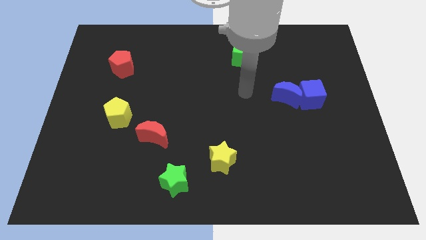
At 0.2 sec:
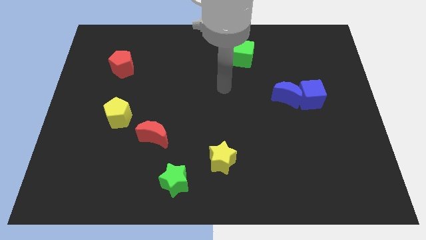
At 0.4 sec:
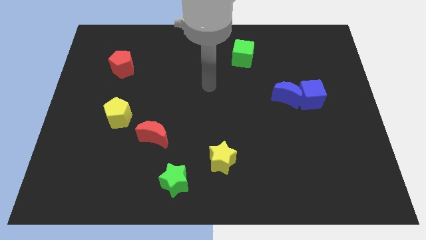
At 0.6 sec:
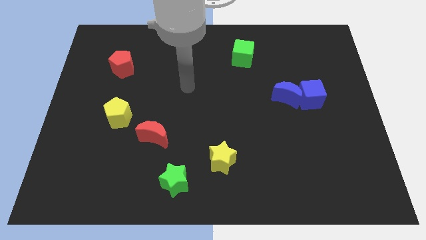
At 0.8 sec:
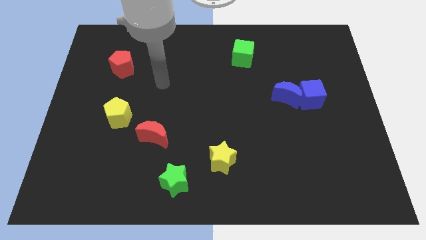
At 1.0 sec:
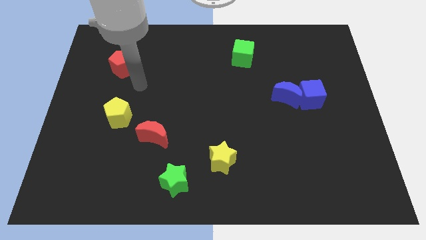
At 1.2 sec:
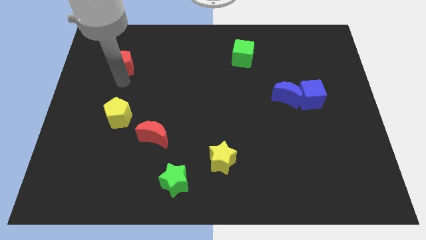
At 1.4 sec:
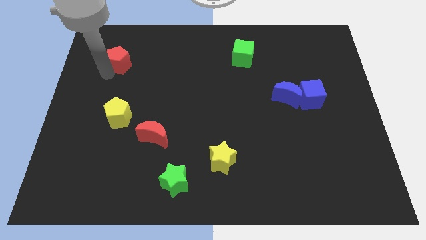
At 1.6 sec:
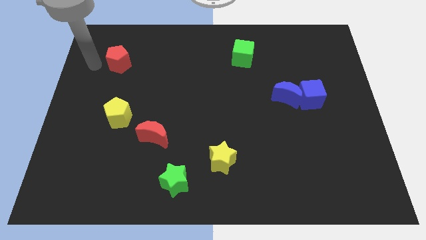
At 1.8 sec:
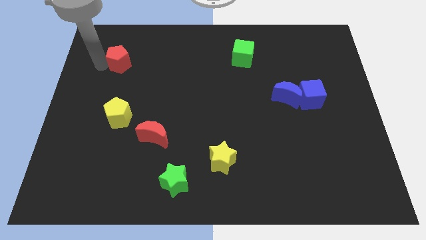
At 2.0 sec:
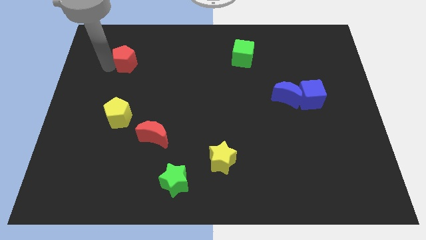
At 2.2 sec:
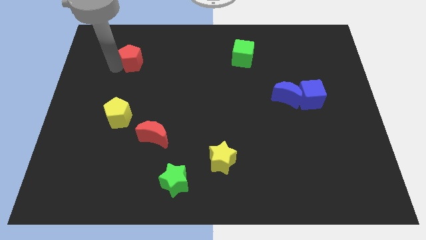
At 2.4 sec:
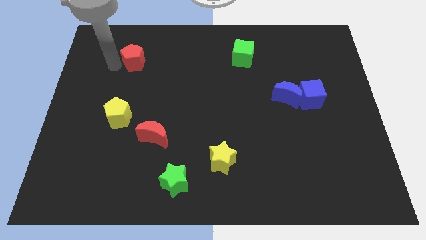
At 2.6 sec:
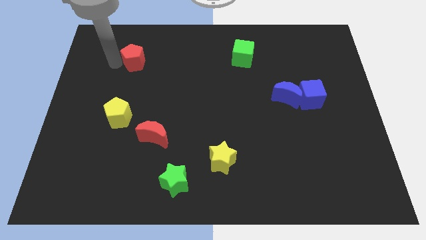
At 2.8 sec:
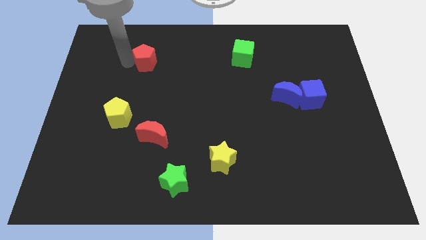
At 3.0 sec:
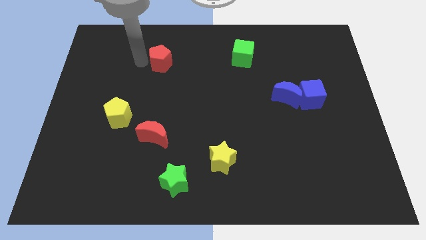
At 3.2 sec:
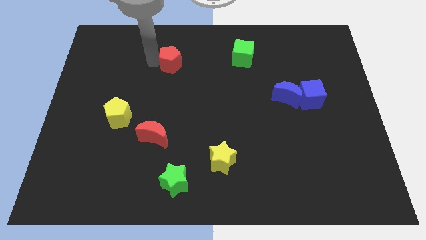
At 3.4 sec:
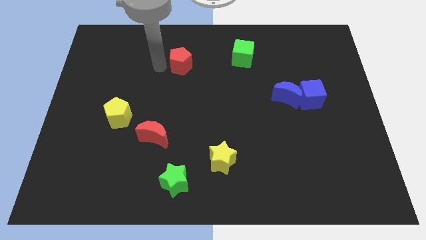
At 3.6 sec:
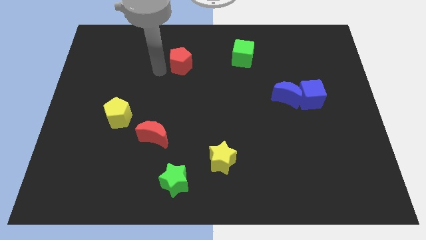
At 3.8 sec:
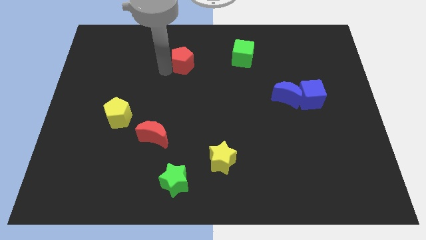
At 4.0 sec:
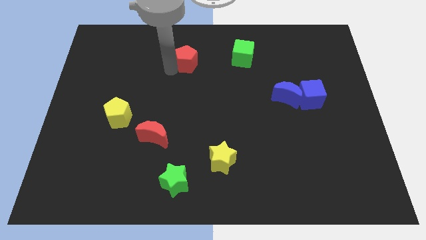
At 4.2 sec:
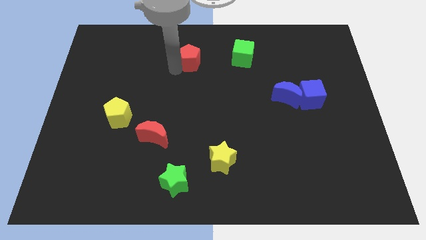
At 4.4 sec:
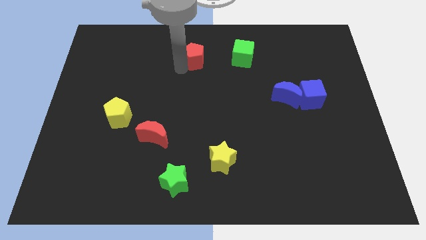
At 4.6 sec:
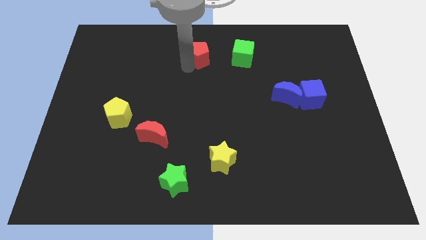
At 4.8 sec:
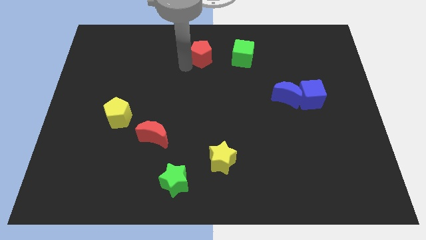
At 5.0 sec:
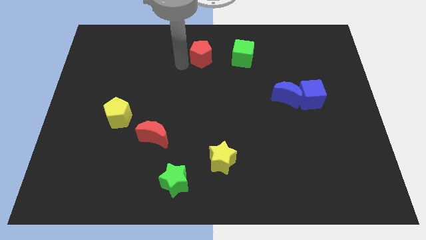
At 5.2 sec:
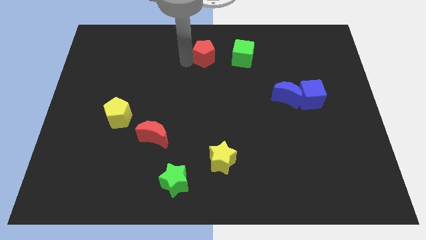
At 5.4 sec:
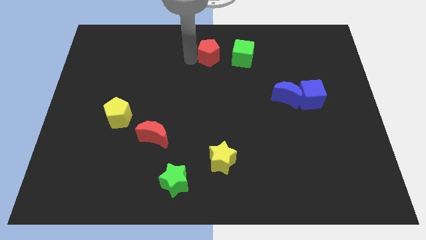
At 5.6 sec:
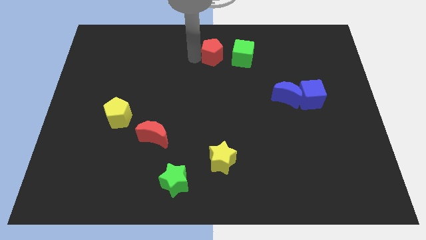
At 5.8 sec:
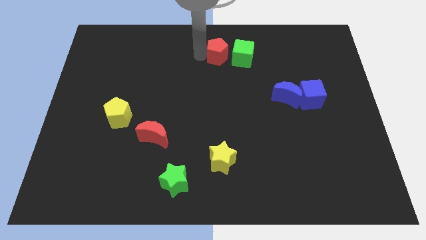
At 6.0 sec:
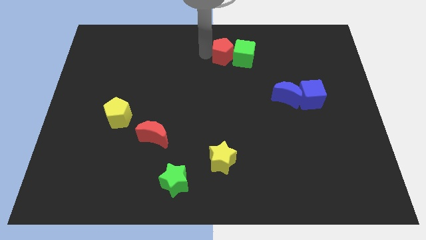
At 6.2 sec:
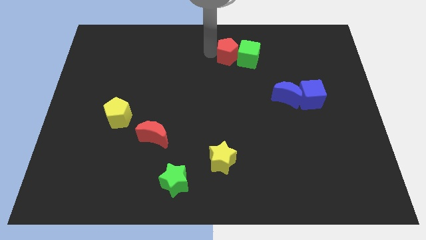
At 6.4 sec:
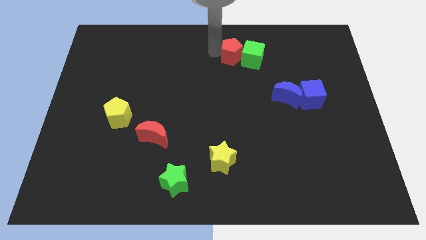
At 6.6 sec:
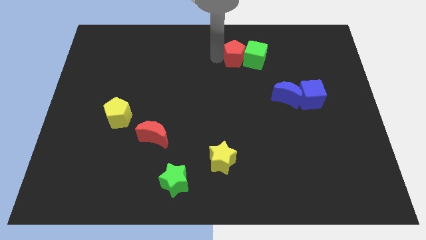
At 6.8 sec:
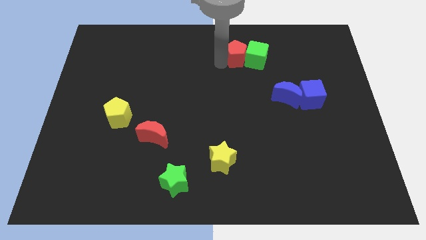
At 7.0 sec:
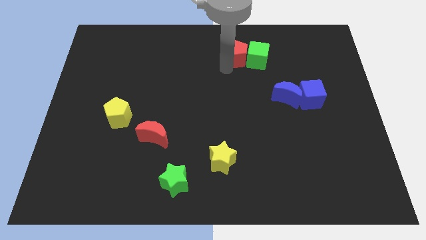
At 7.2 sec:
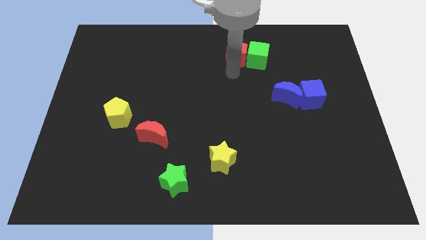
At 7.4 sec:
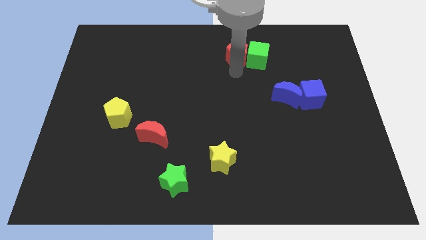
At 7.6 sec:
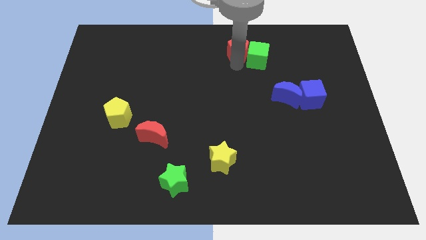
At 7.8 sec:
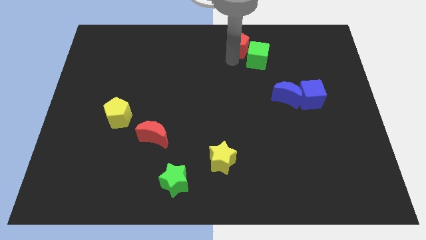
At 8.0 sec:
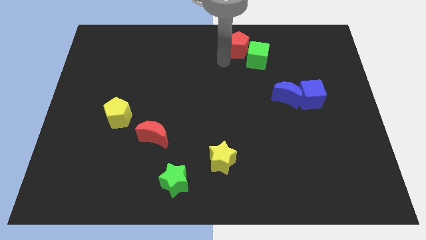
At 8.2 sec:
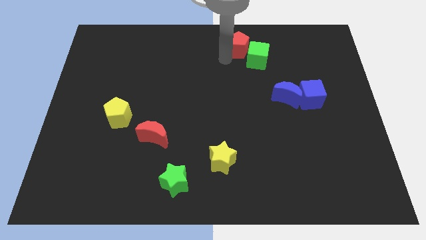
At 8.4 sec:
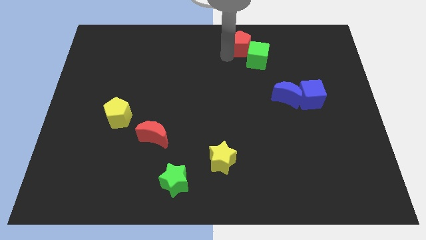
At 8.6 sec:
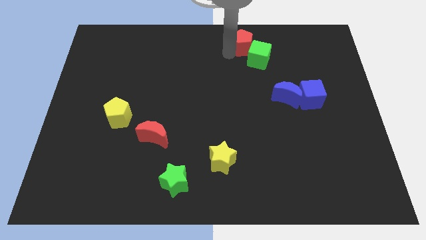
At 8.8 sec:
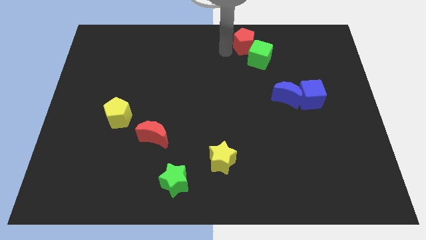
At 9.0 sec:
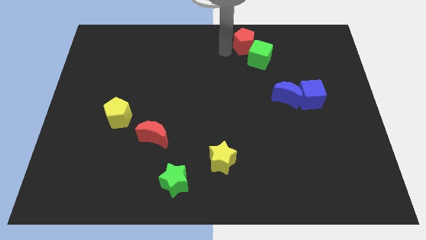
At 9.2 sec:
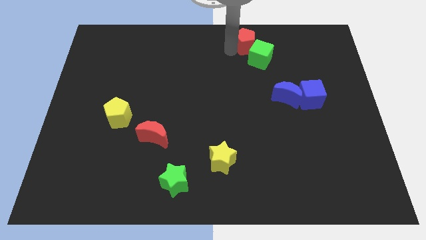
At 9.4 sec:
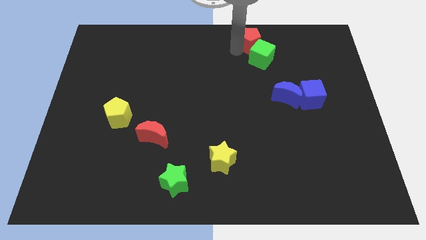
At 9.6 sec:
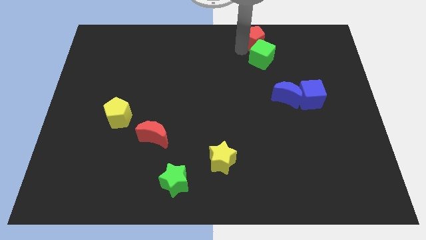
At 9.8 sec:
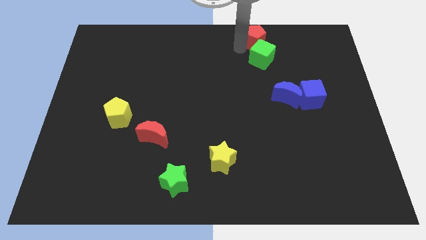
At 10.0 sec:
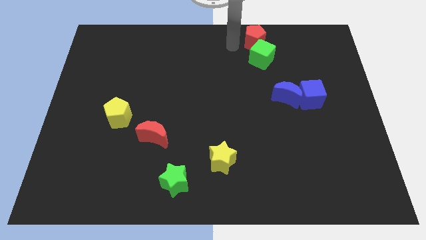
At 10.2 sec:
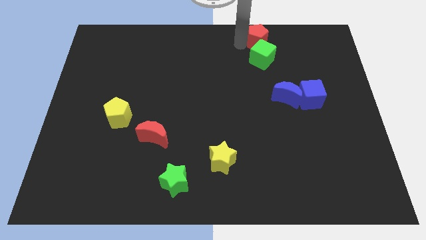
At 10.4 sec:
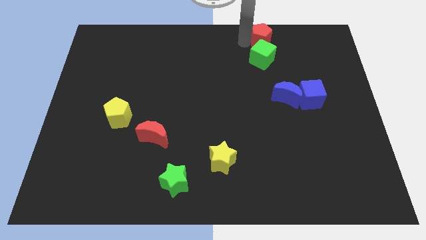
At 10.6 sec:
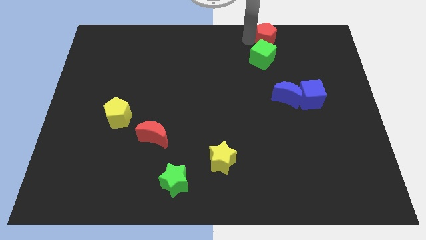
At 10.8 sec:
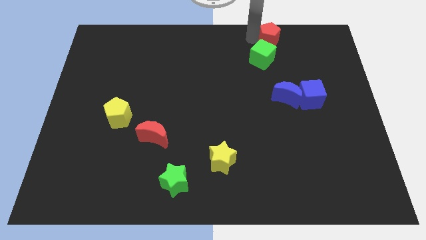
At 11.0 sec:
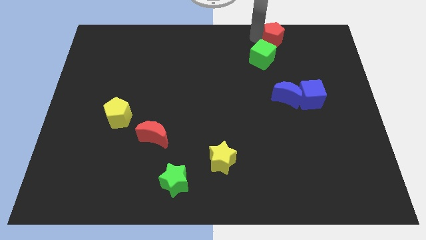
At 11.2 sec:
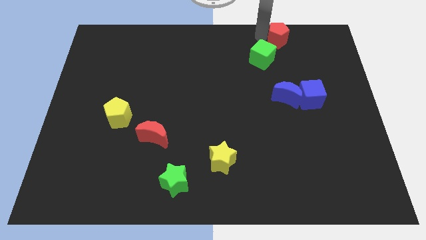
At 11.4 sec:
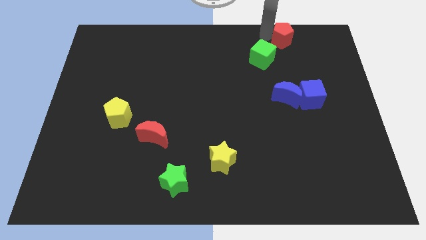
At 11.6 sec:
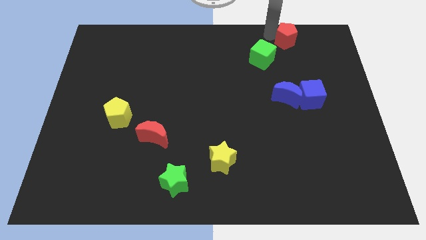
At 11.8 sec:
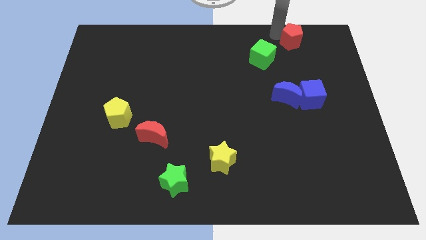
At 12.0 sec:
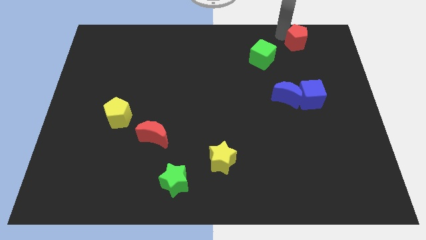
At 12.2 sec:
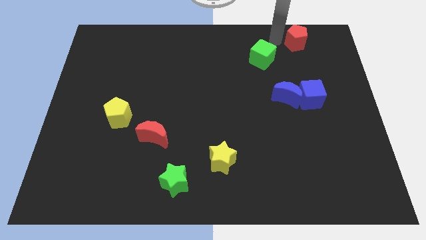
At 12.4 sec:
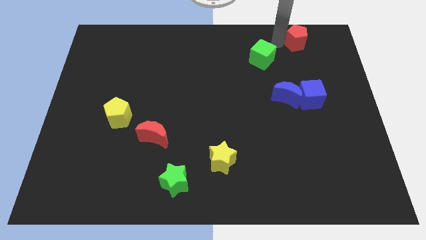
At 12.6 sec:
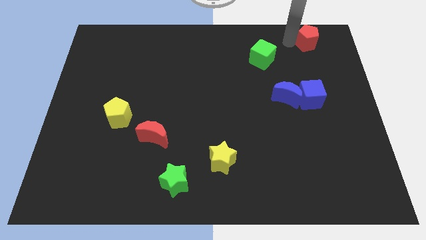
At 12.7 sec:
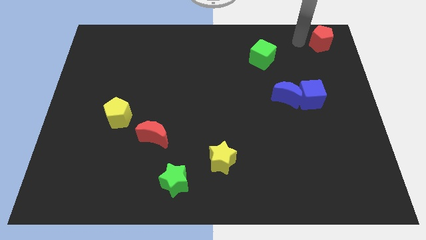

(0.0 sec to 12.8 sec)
put the red pentagon to the top right corner
